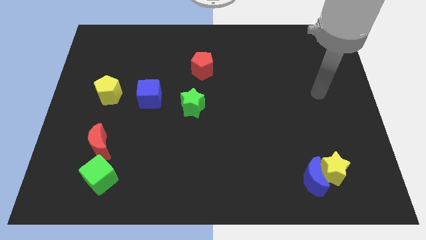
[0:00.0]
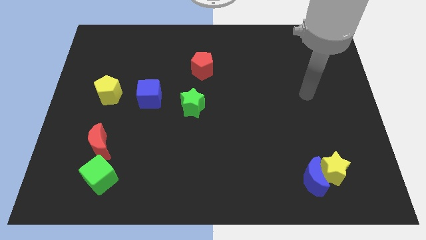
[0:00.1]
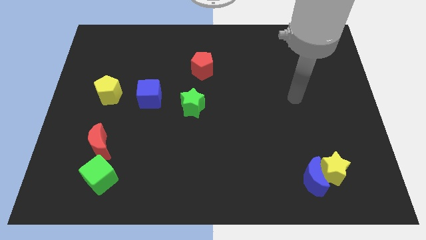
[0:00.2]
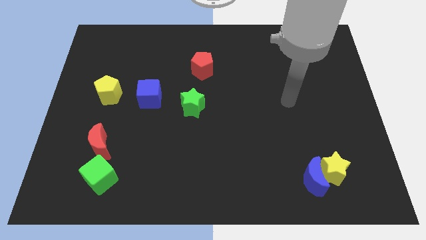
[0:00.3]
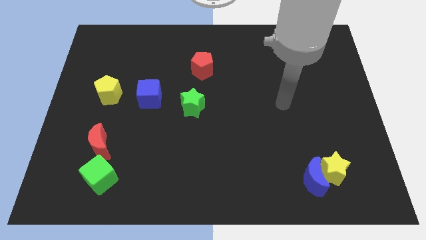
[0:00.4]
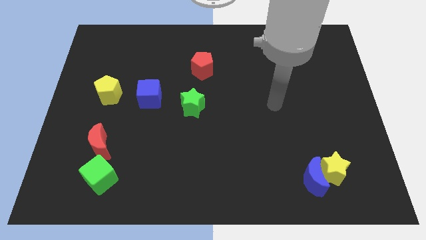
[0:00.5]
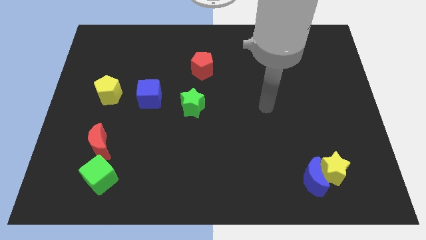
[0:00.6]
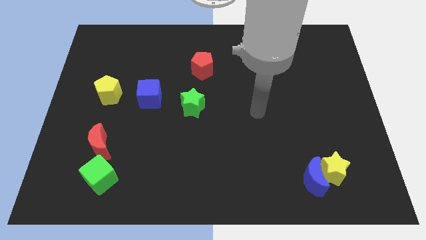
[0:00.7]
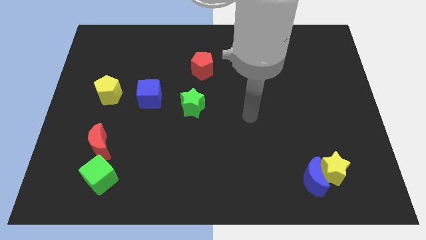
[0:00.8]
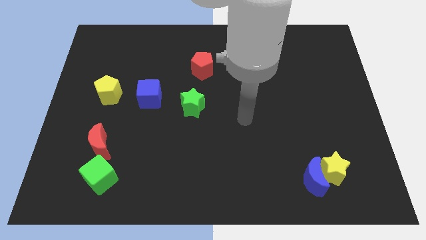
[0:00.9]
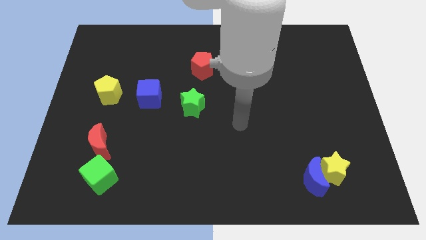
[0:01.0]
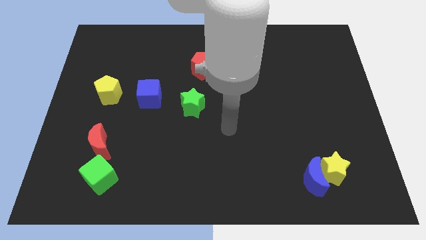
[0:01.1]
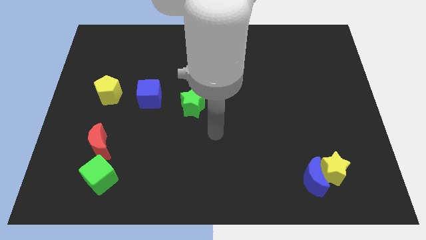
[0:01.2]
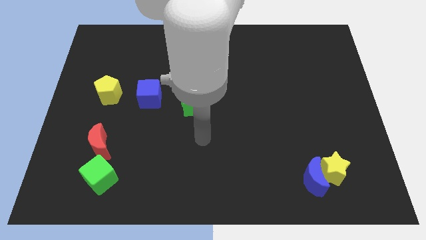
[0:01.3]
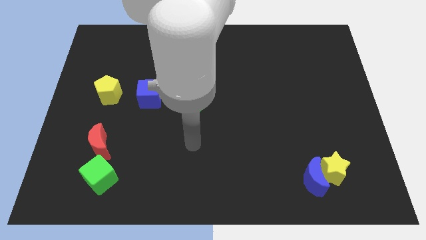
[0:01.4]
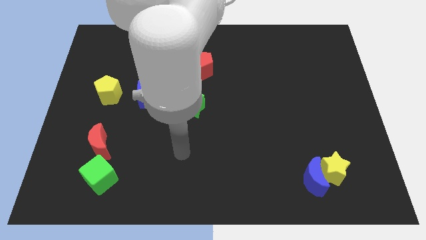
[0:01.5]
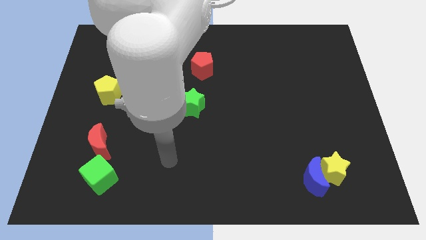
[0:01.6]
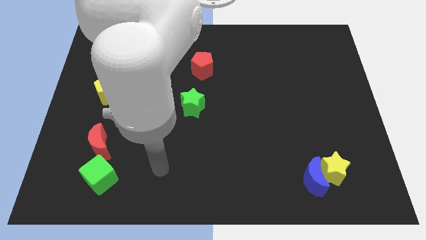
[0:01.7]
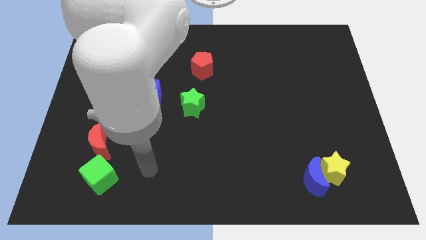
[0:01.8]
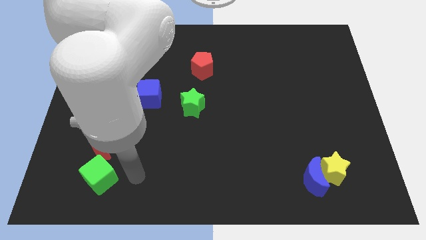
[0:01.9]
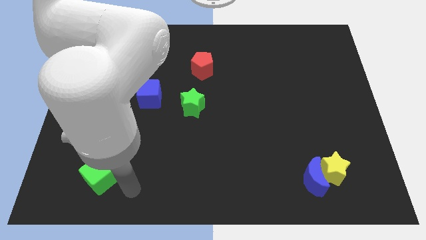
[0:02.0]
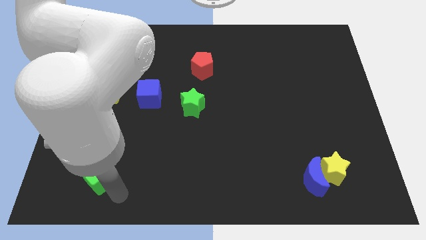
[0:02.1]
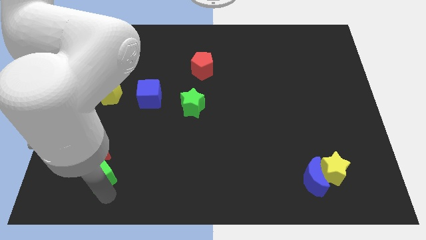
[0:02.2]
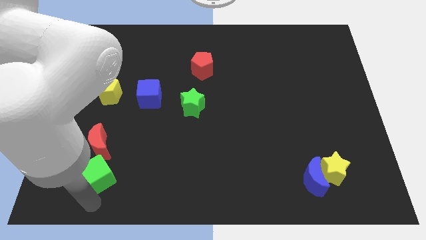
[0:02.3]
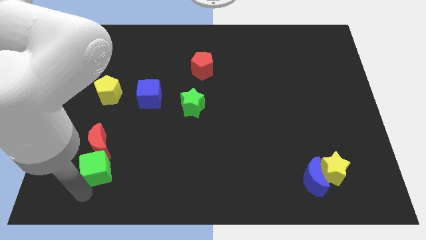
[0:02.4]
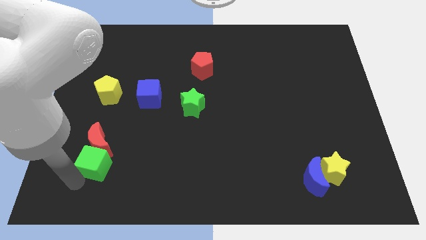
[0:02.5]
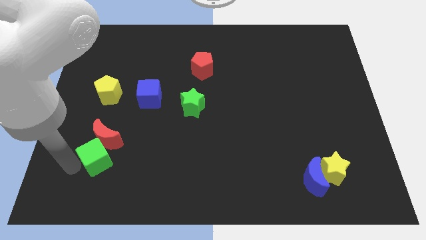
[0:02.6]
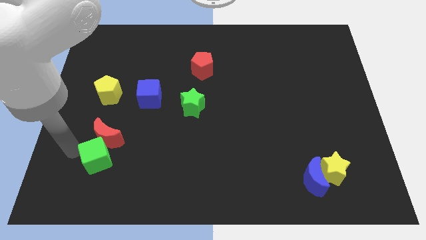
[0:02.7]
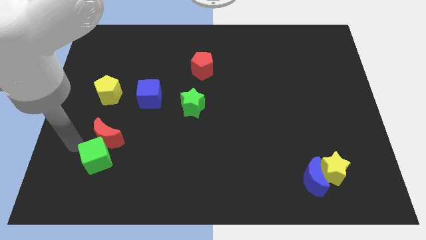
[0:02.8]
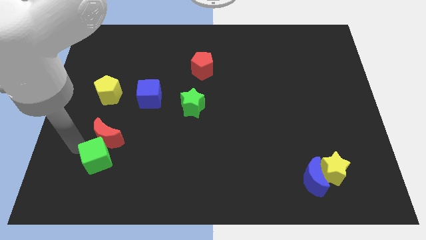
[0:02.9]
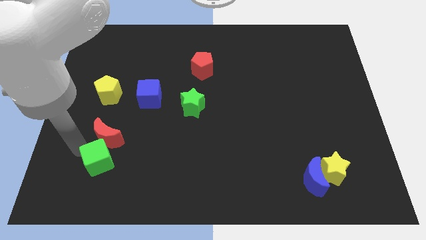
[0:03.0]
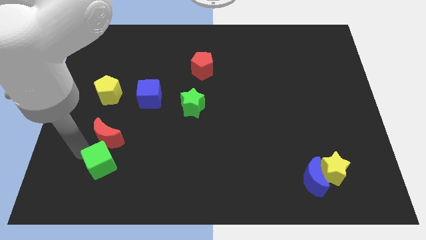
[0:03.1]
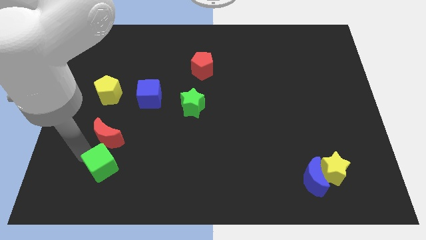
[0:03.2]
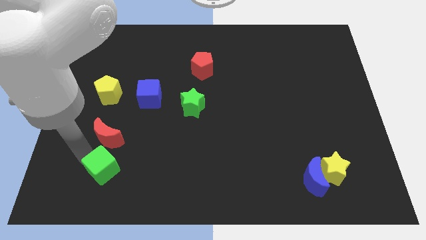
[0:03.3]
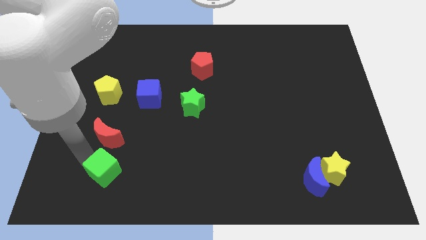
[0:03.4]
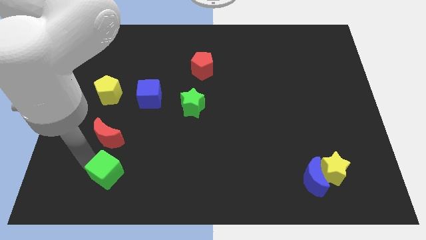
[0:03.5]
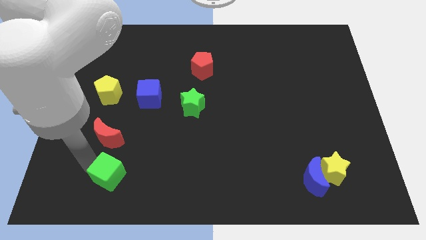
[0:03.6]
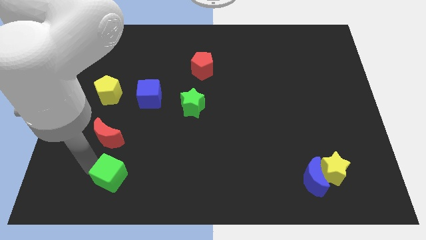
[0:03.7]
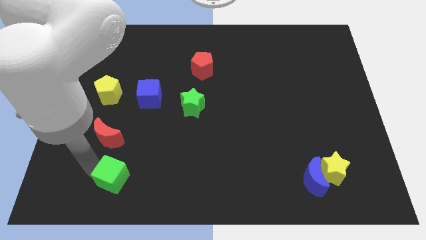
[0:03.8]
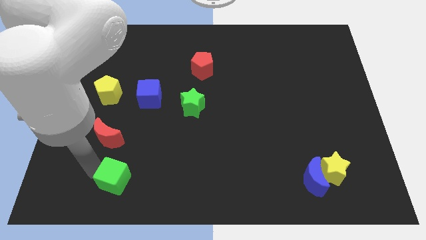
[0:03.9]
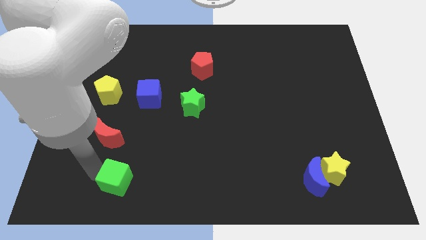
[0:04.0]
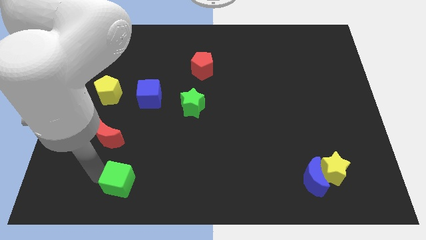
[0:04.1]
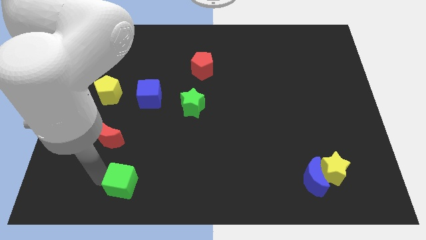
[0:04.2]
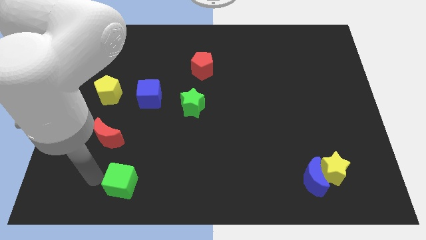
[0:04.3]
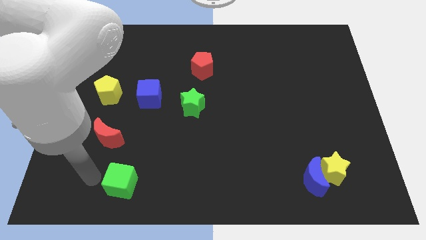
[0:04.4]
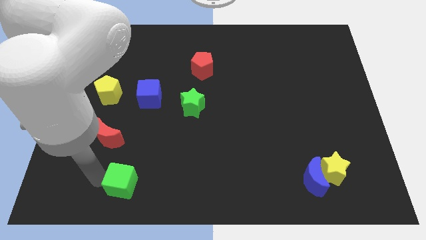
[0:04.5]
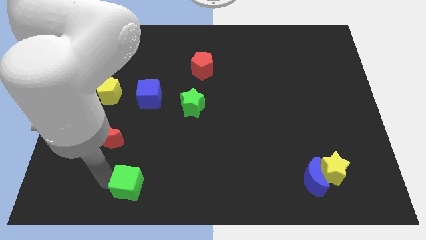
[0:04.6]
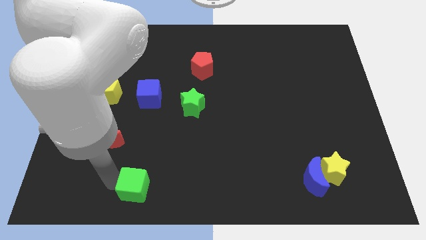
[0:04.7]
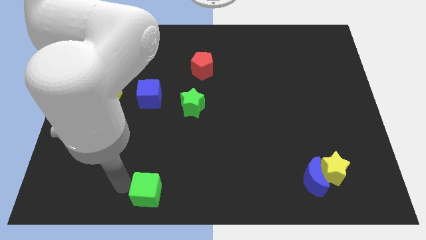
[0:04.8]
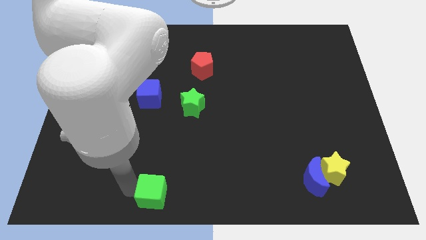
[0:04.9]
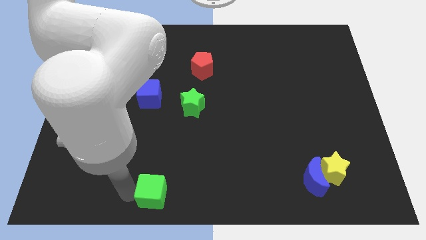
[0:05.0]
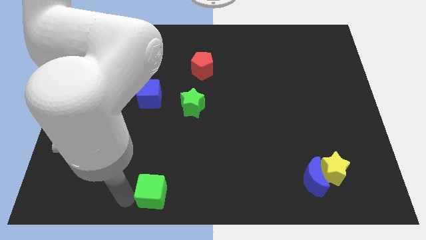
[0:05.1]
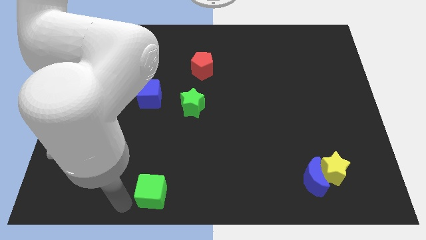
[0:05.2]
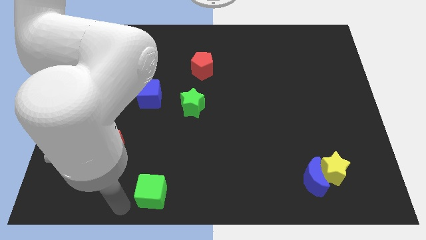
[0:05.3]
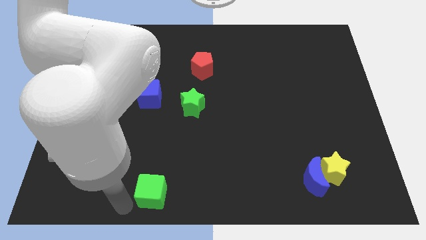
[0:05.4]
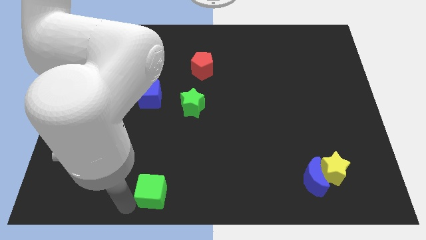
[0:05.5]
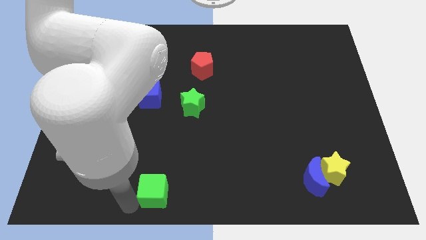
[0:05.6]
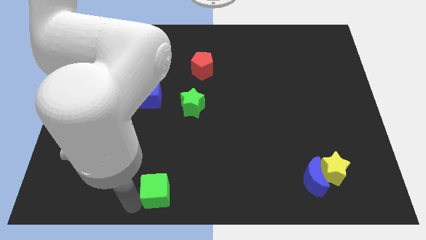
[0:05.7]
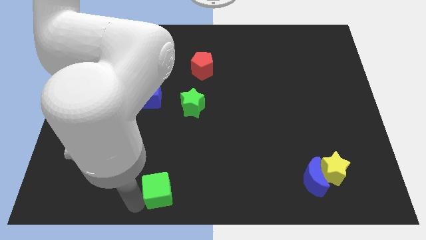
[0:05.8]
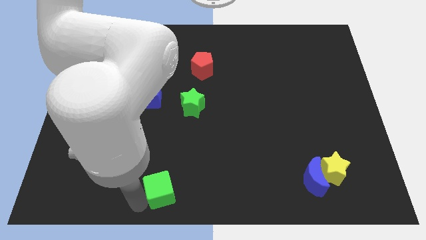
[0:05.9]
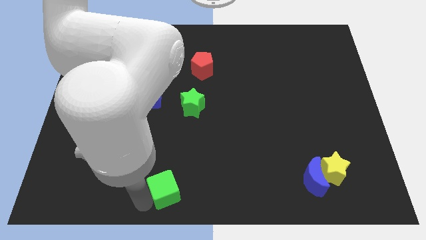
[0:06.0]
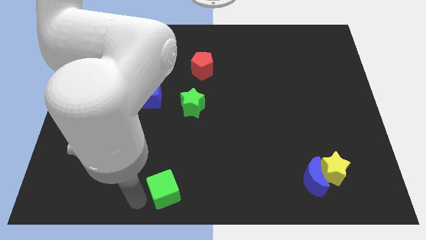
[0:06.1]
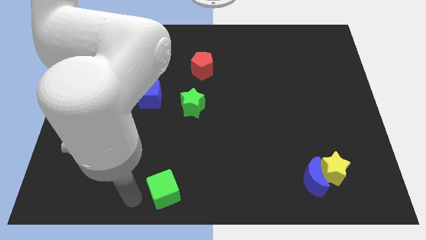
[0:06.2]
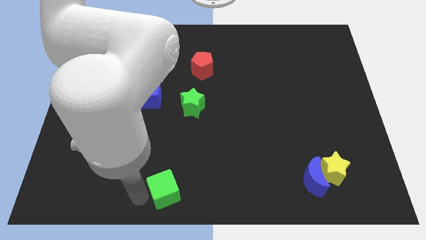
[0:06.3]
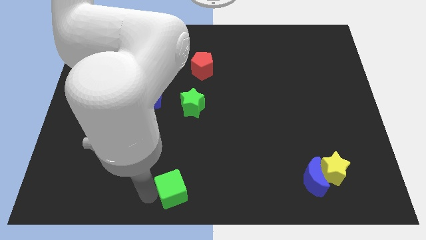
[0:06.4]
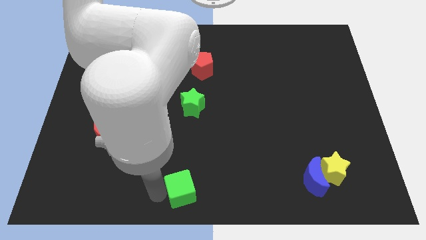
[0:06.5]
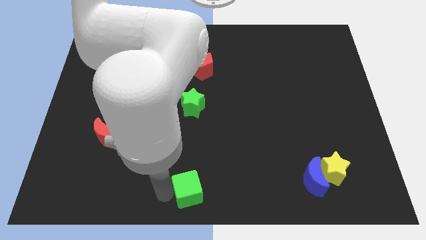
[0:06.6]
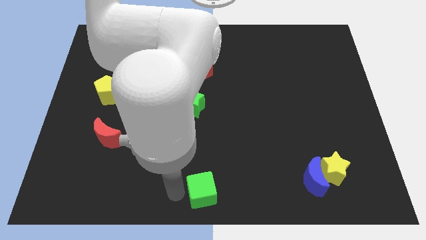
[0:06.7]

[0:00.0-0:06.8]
slide the green cube right

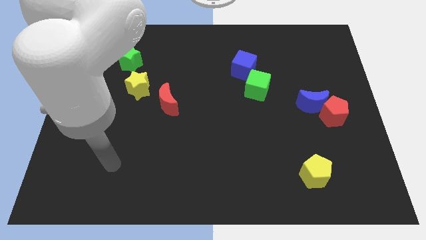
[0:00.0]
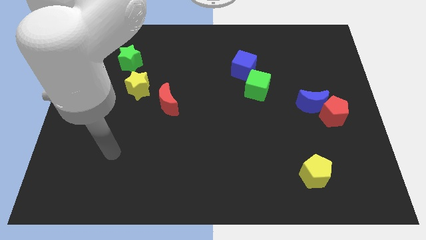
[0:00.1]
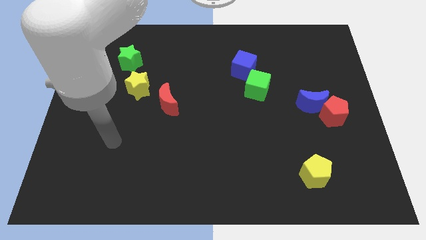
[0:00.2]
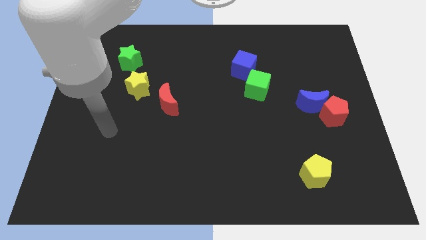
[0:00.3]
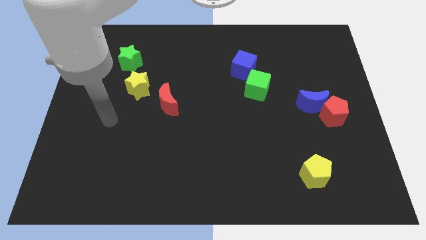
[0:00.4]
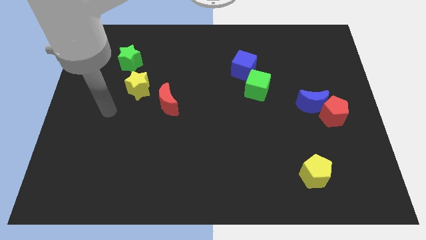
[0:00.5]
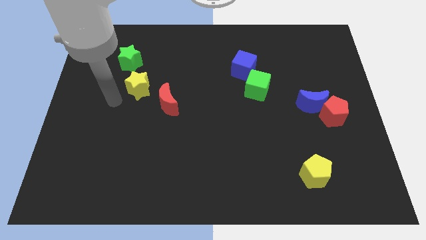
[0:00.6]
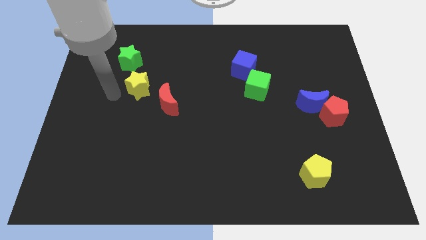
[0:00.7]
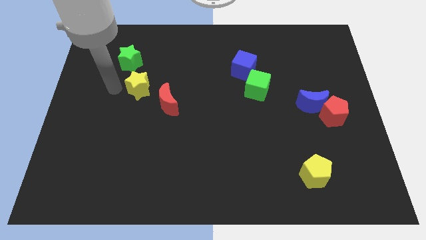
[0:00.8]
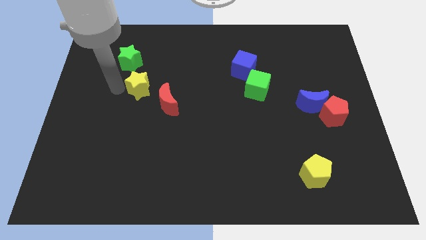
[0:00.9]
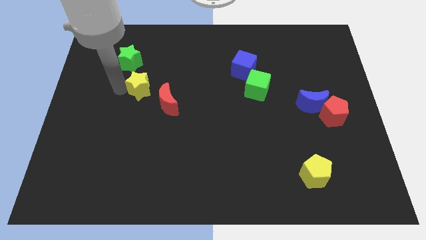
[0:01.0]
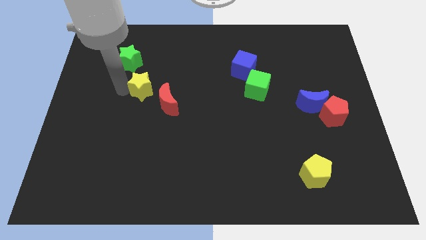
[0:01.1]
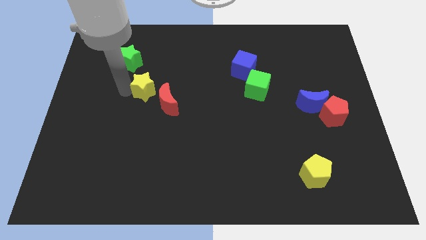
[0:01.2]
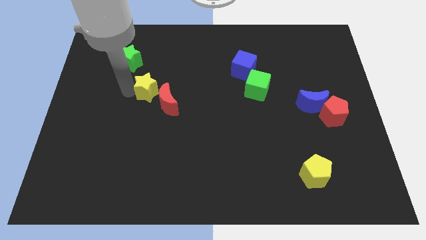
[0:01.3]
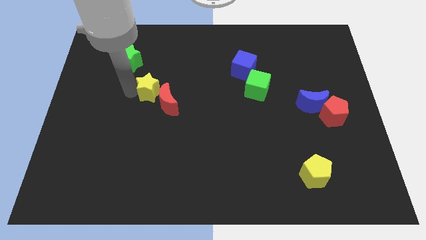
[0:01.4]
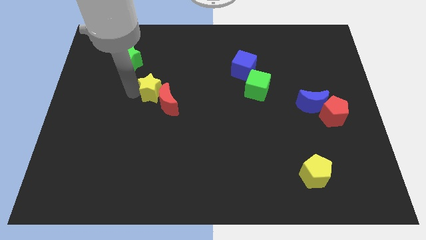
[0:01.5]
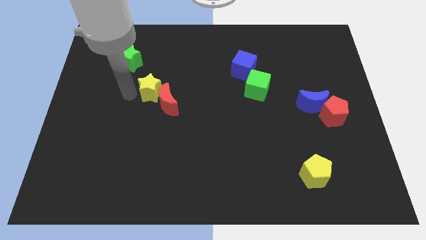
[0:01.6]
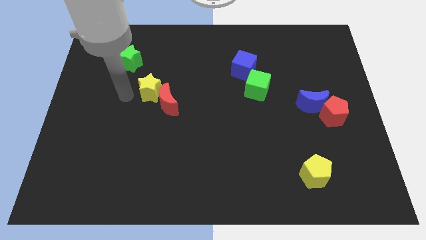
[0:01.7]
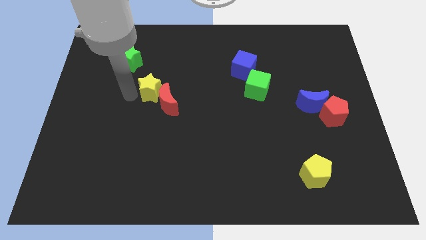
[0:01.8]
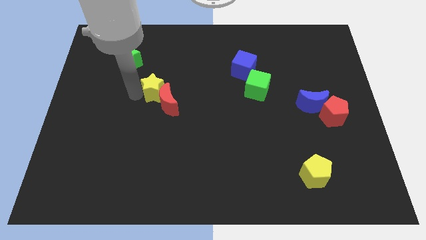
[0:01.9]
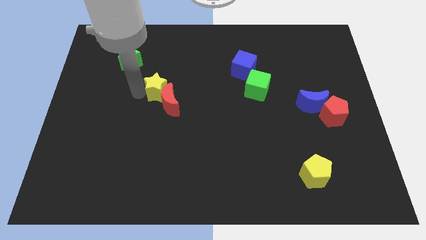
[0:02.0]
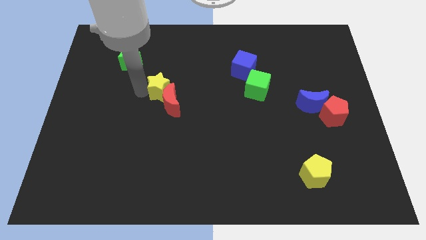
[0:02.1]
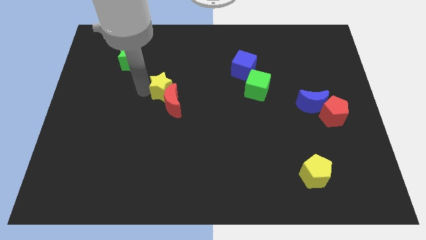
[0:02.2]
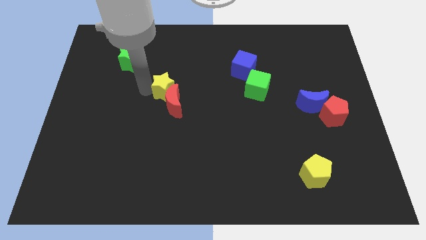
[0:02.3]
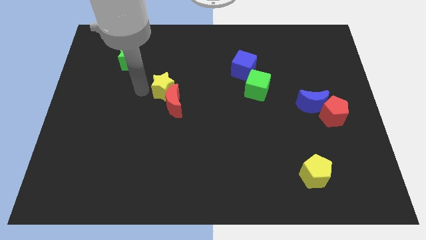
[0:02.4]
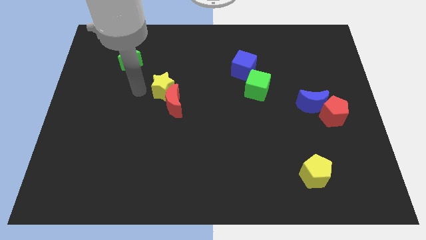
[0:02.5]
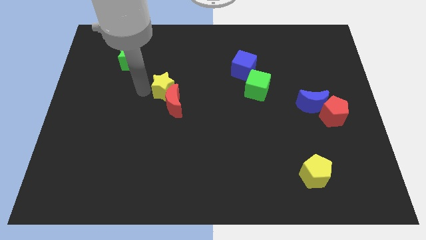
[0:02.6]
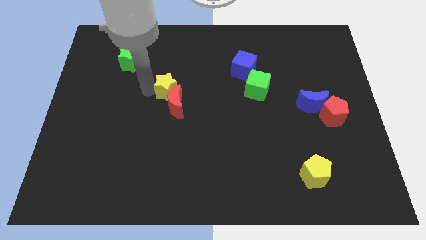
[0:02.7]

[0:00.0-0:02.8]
move the yellow star a bit right
